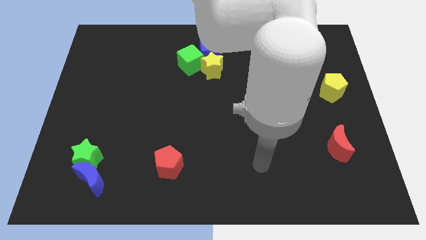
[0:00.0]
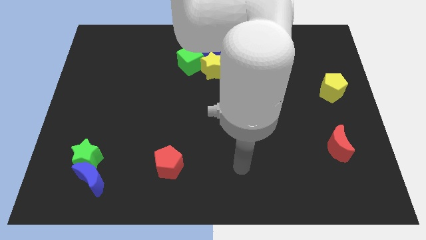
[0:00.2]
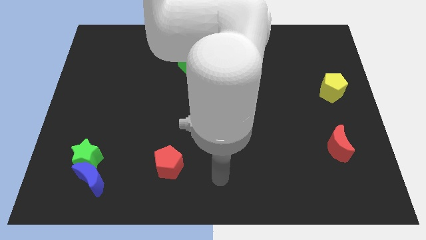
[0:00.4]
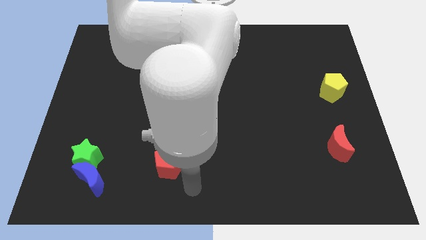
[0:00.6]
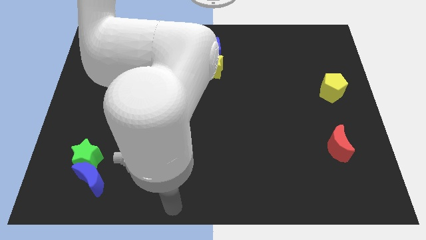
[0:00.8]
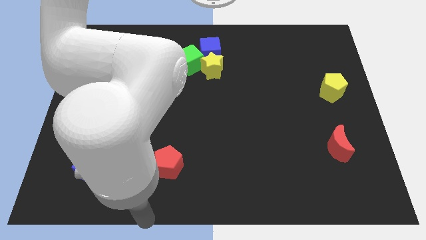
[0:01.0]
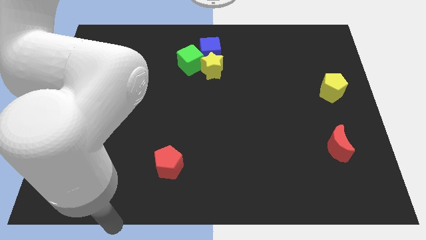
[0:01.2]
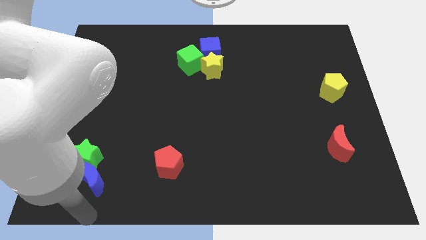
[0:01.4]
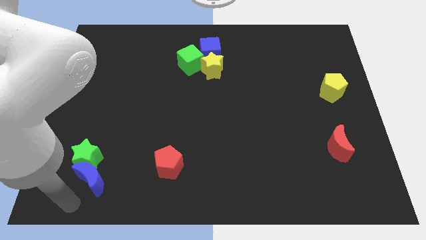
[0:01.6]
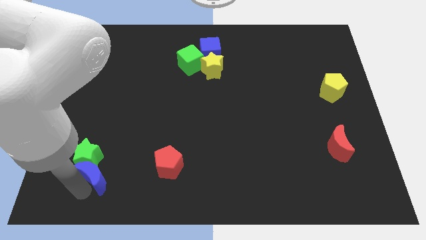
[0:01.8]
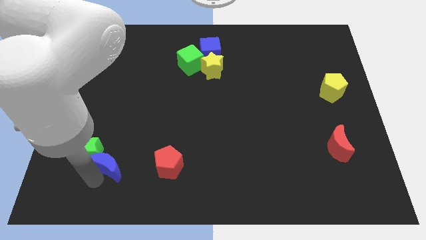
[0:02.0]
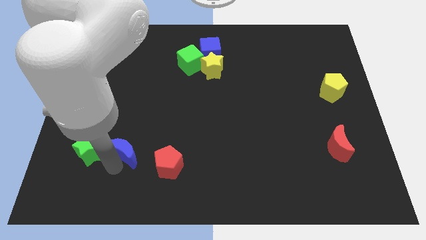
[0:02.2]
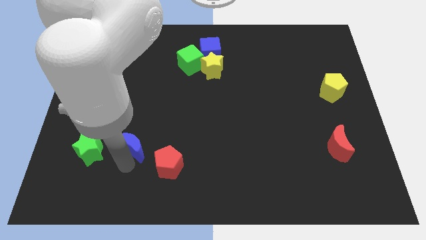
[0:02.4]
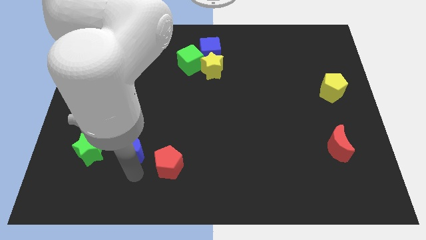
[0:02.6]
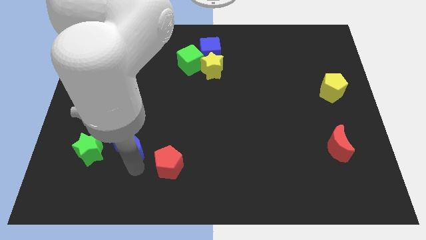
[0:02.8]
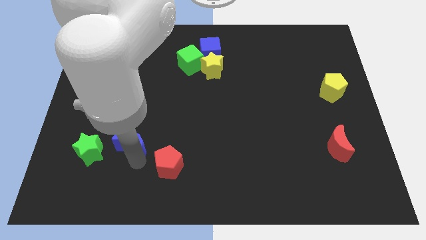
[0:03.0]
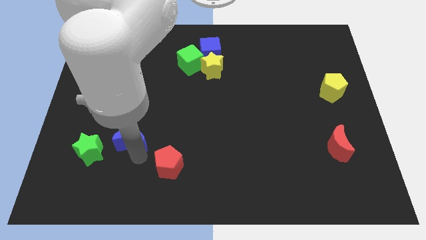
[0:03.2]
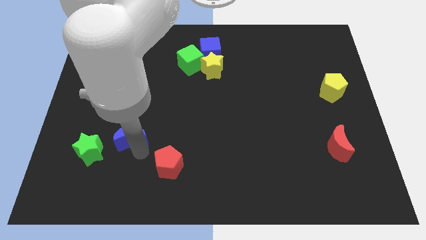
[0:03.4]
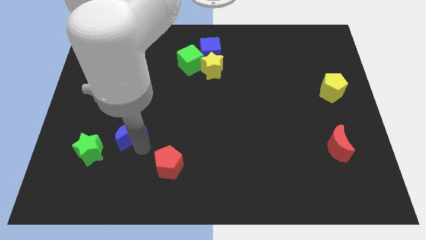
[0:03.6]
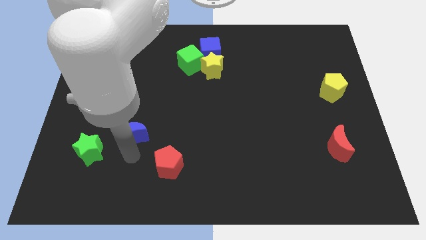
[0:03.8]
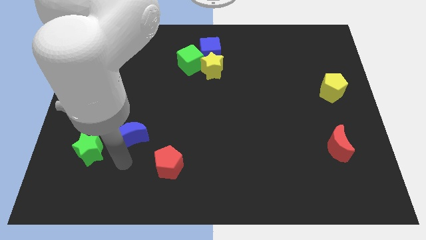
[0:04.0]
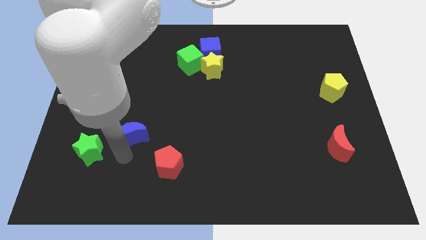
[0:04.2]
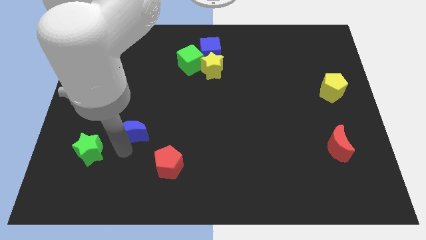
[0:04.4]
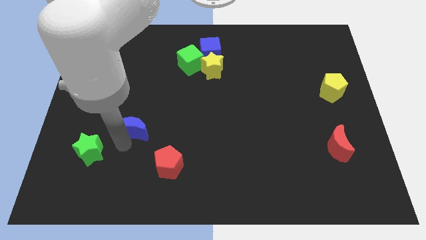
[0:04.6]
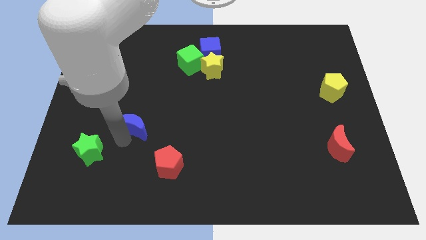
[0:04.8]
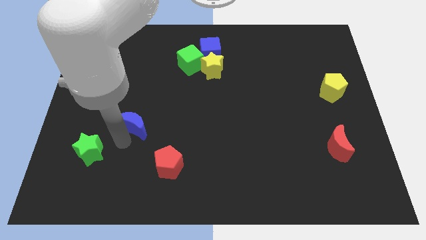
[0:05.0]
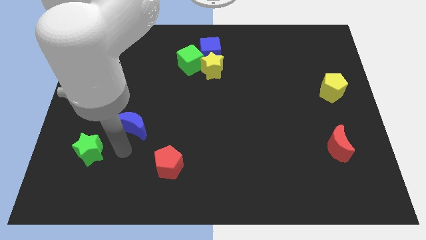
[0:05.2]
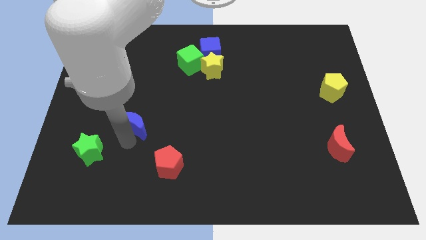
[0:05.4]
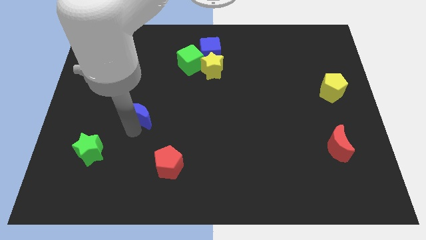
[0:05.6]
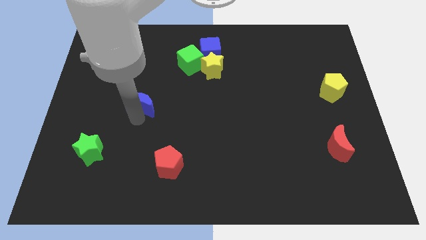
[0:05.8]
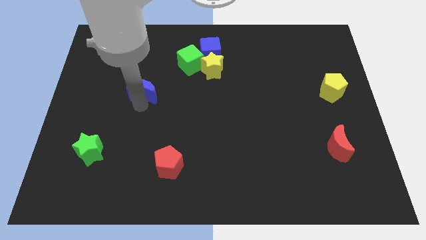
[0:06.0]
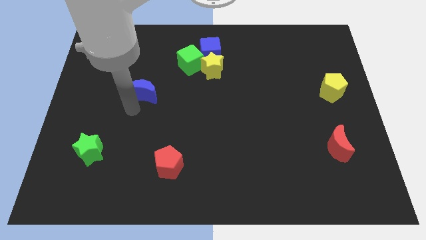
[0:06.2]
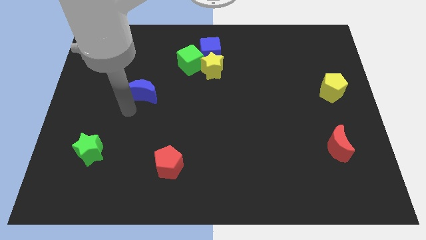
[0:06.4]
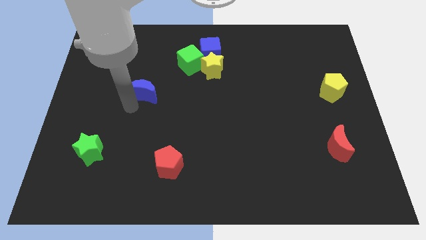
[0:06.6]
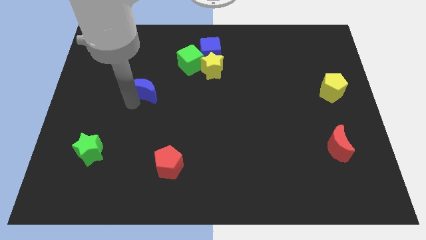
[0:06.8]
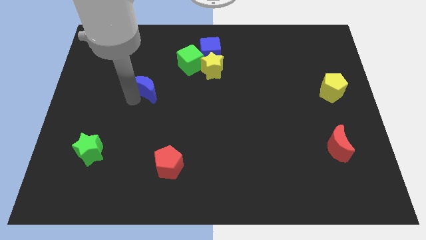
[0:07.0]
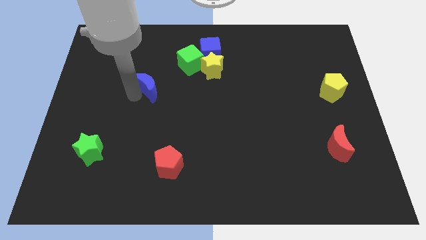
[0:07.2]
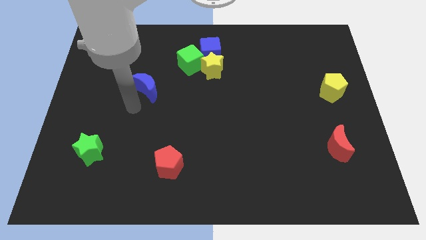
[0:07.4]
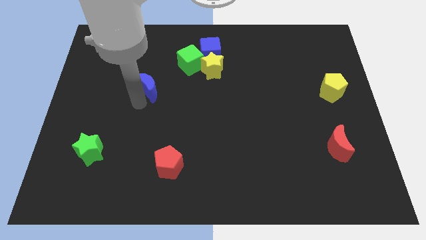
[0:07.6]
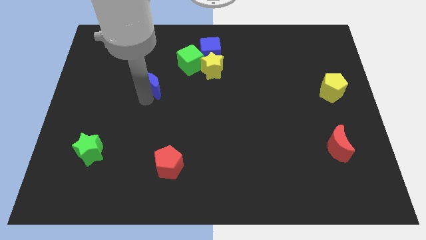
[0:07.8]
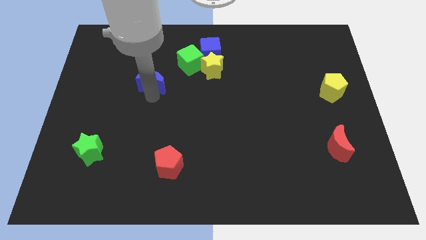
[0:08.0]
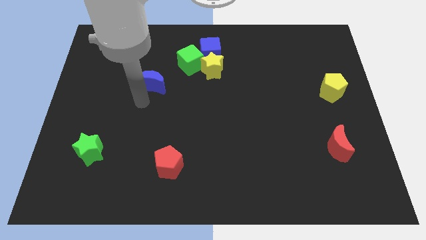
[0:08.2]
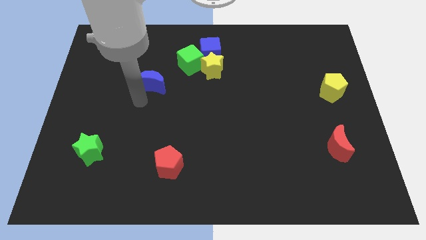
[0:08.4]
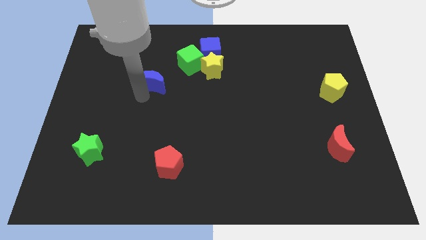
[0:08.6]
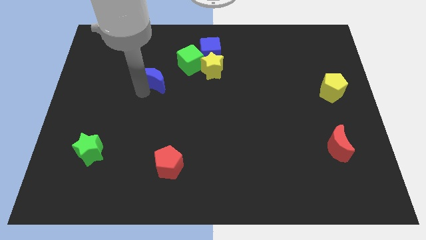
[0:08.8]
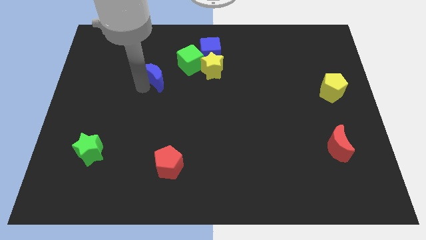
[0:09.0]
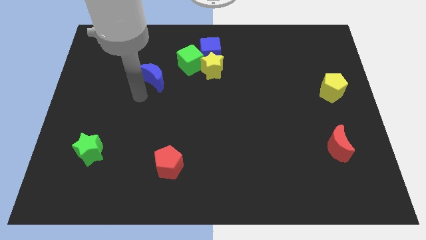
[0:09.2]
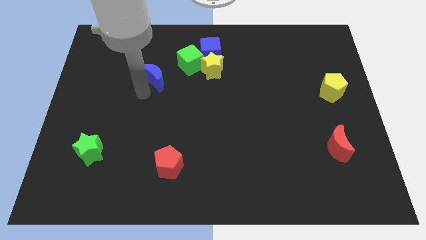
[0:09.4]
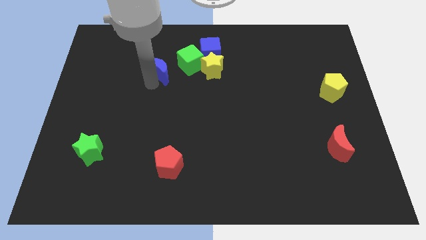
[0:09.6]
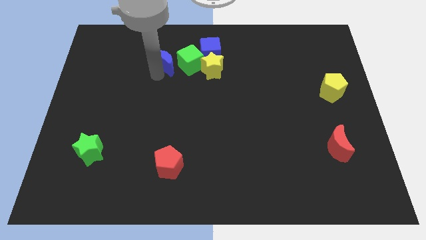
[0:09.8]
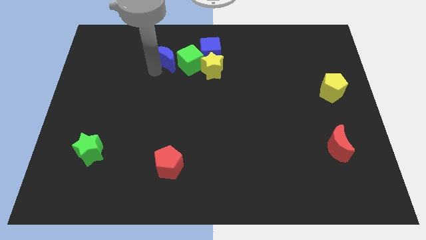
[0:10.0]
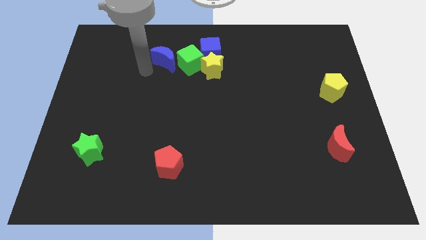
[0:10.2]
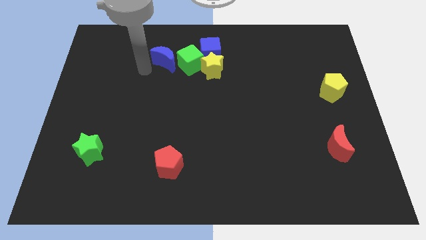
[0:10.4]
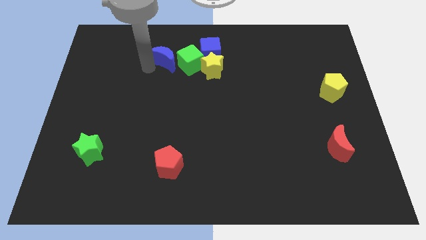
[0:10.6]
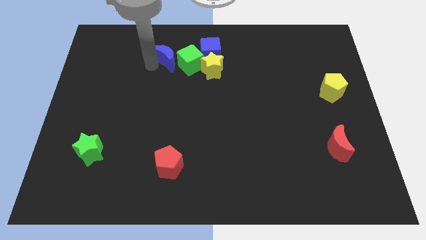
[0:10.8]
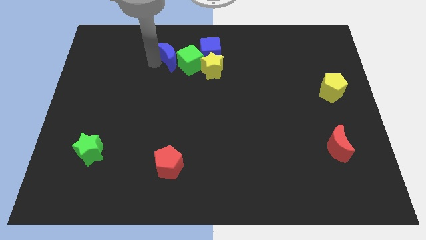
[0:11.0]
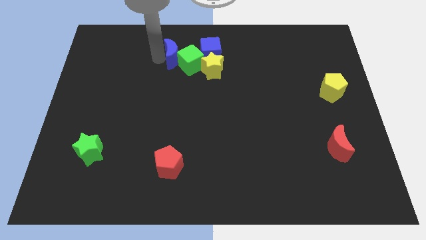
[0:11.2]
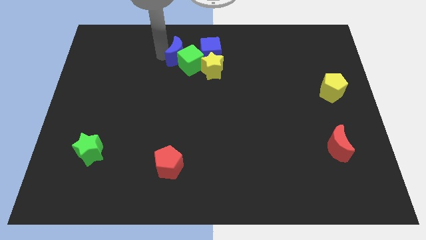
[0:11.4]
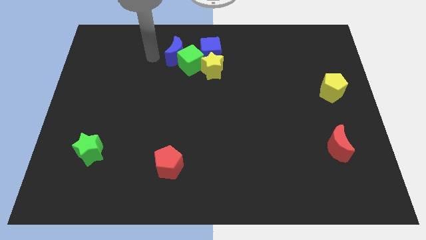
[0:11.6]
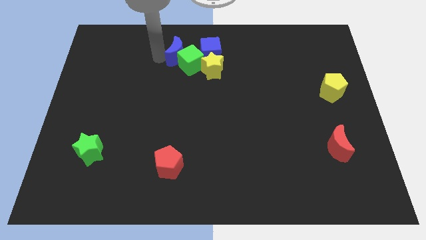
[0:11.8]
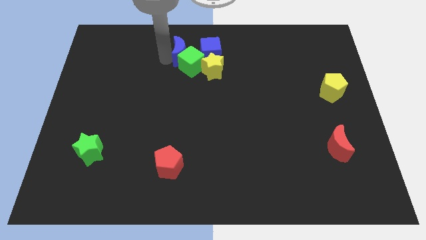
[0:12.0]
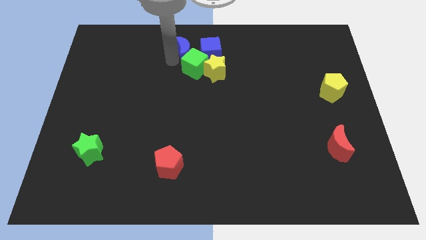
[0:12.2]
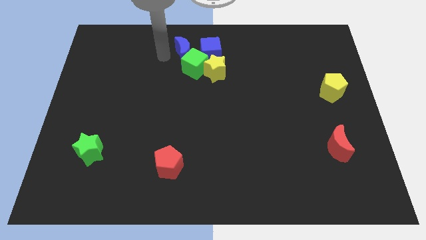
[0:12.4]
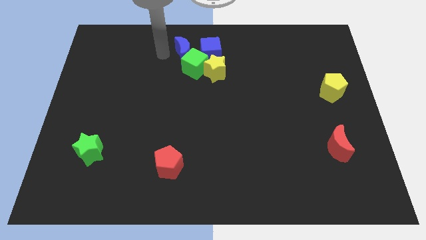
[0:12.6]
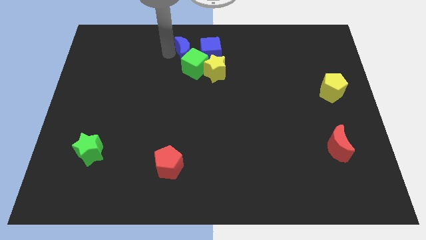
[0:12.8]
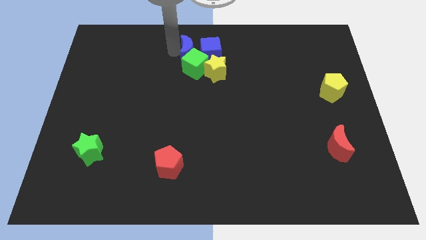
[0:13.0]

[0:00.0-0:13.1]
put the blue moon towards the blue cube
